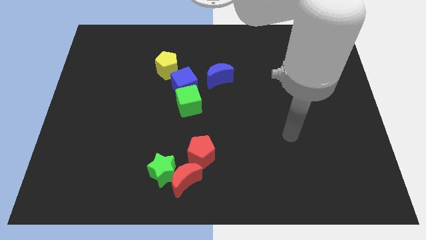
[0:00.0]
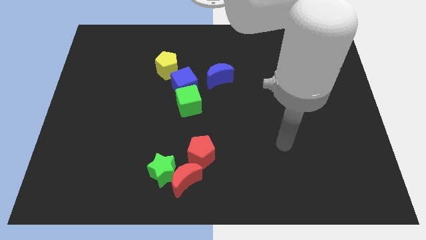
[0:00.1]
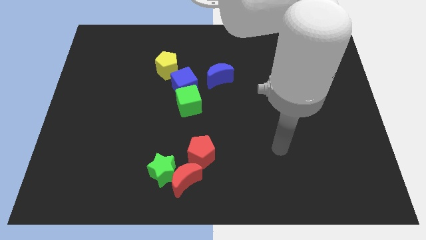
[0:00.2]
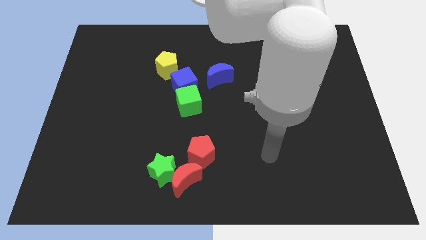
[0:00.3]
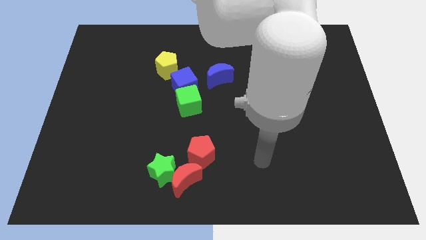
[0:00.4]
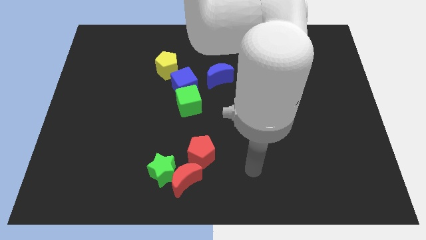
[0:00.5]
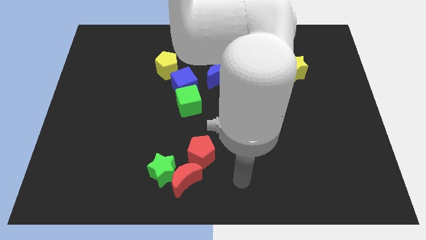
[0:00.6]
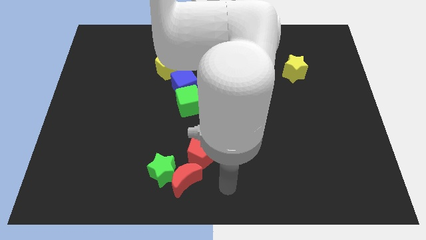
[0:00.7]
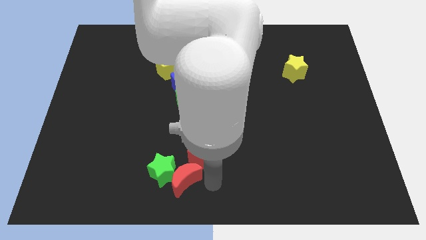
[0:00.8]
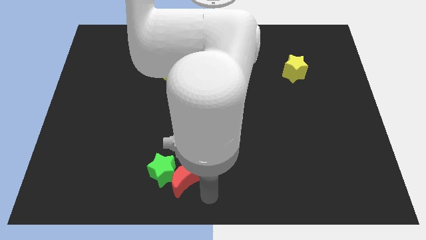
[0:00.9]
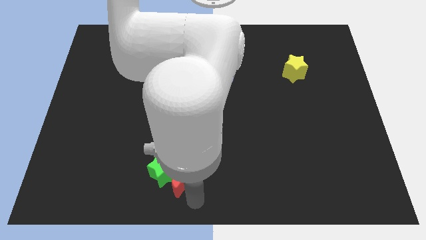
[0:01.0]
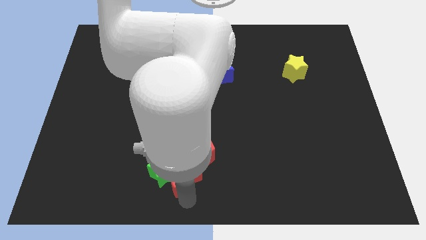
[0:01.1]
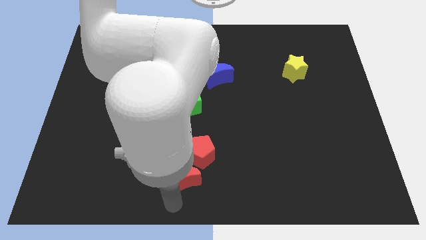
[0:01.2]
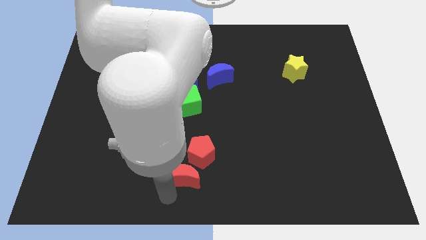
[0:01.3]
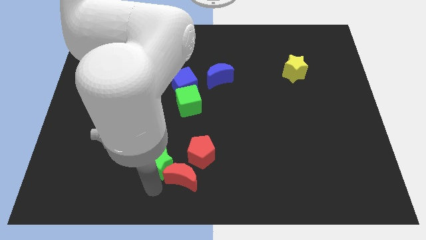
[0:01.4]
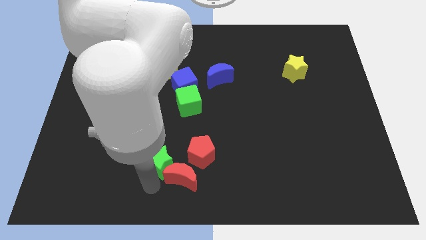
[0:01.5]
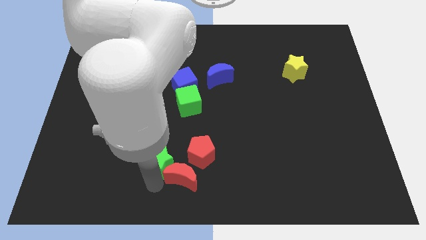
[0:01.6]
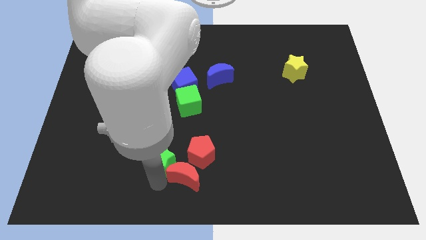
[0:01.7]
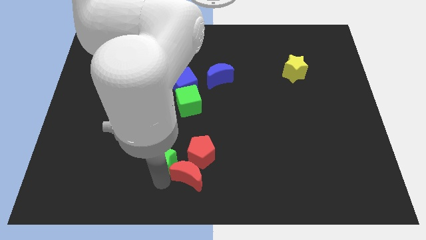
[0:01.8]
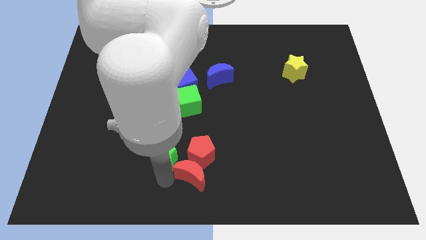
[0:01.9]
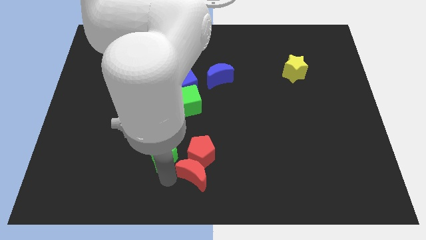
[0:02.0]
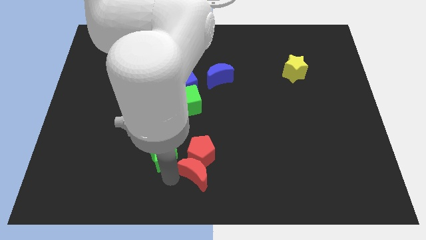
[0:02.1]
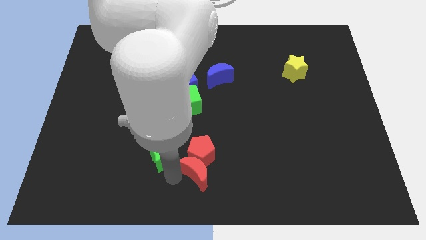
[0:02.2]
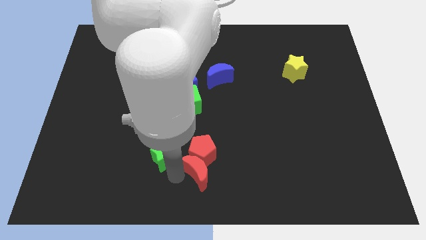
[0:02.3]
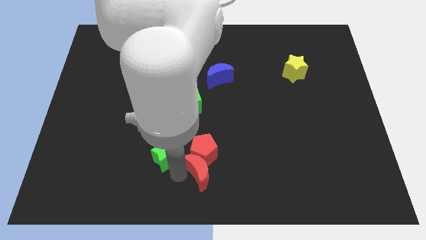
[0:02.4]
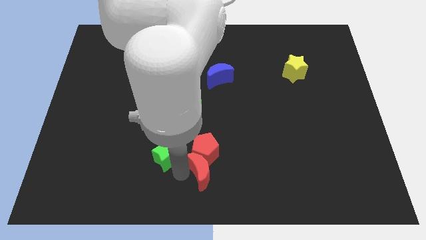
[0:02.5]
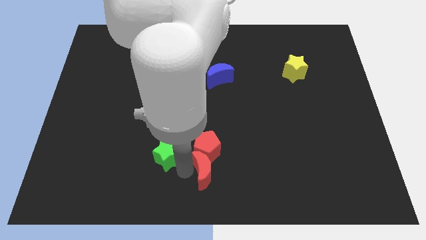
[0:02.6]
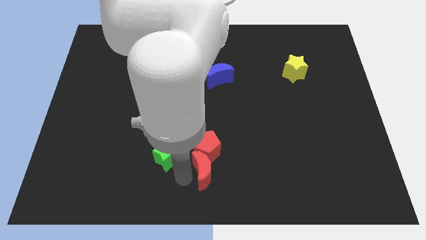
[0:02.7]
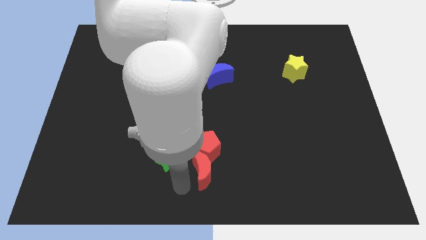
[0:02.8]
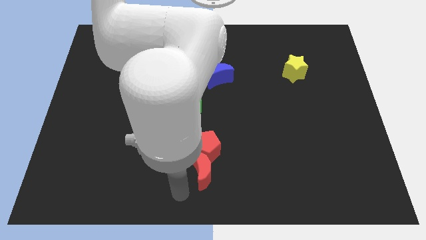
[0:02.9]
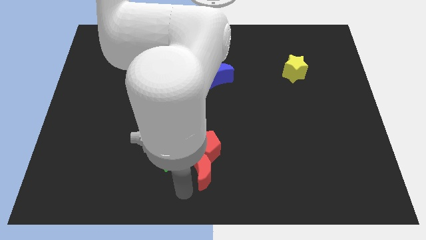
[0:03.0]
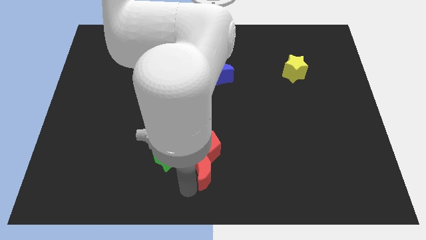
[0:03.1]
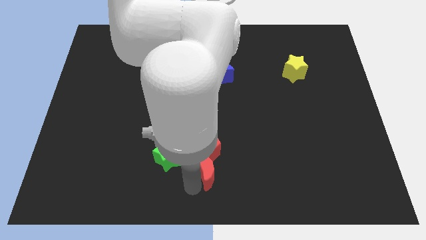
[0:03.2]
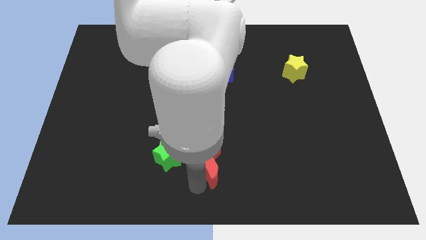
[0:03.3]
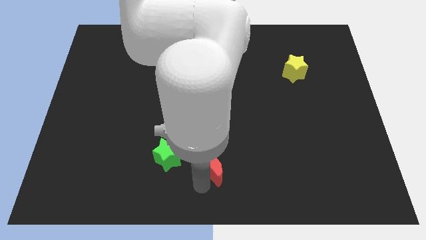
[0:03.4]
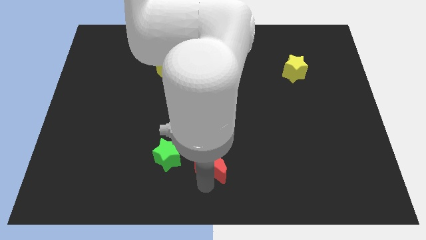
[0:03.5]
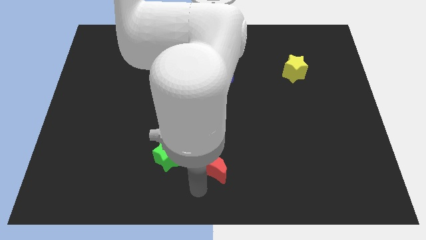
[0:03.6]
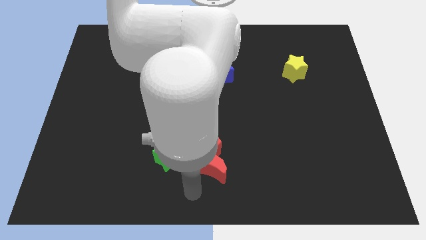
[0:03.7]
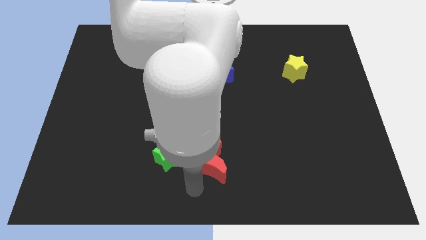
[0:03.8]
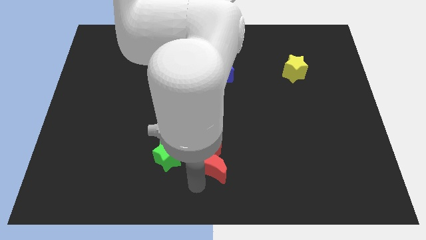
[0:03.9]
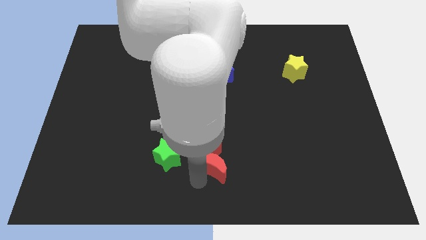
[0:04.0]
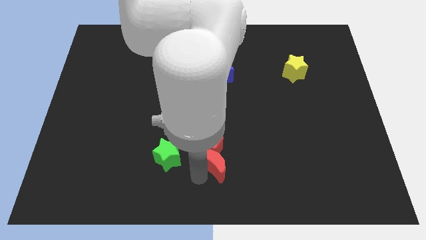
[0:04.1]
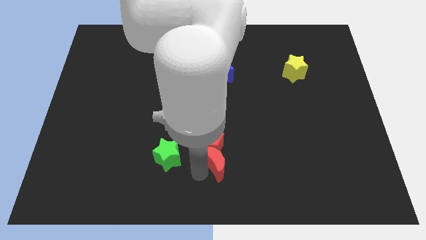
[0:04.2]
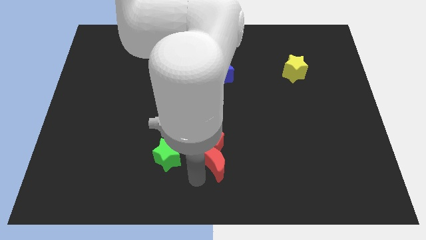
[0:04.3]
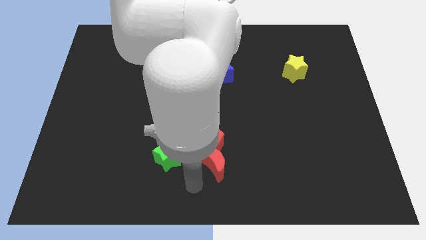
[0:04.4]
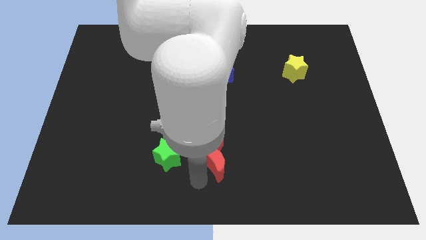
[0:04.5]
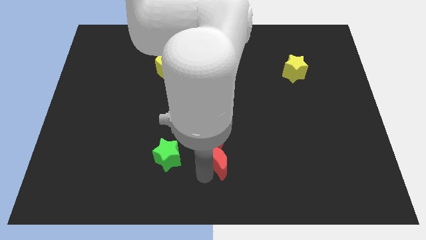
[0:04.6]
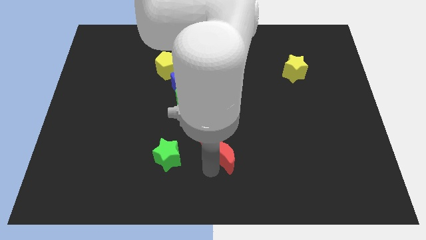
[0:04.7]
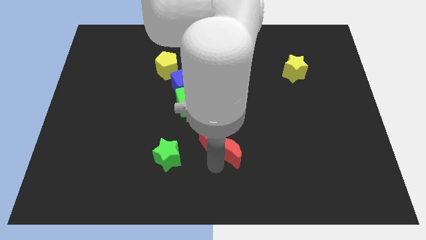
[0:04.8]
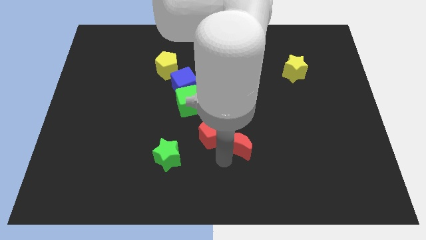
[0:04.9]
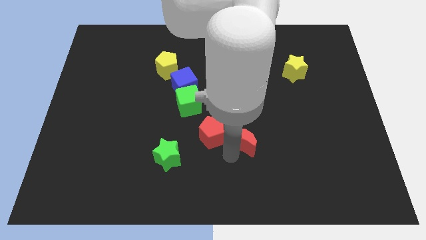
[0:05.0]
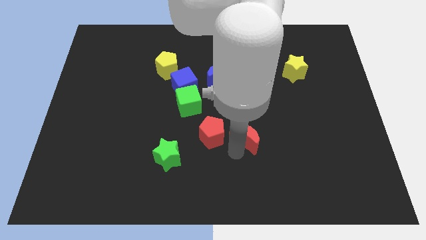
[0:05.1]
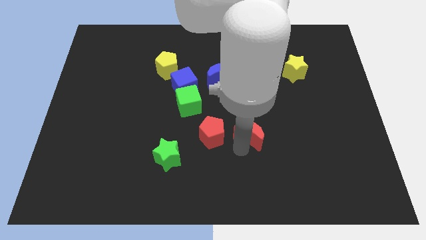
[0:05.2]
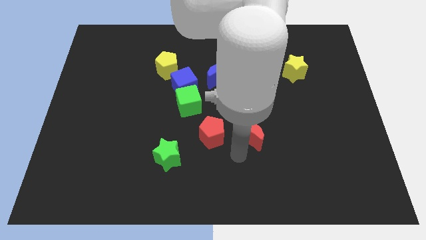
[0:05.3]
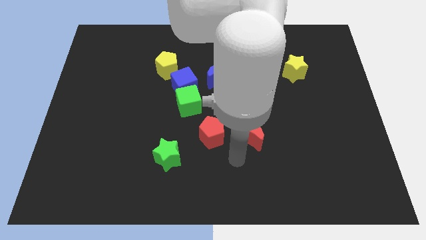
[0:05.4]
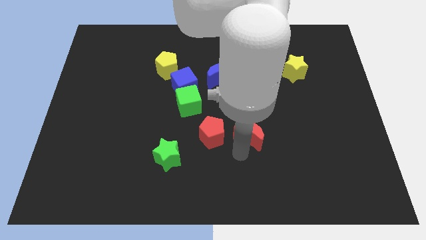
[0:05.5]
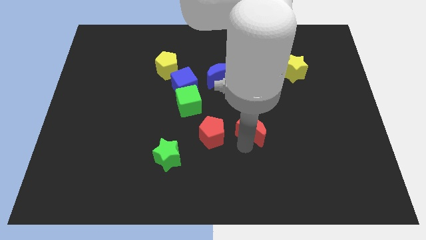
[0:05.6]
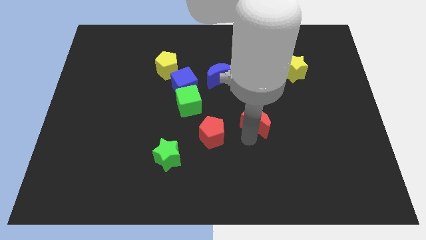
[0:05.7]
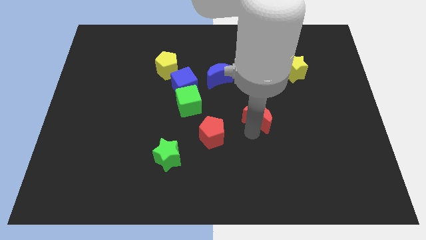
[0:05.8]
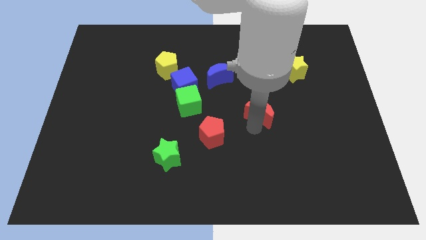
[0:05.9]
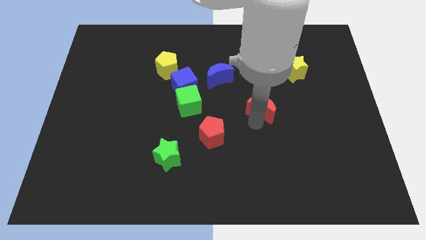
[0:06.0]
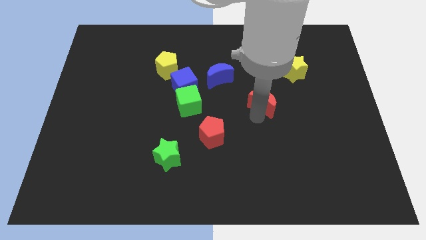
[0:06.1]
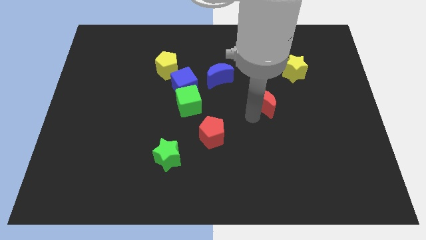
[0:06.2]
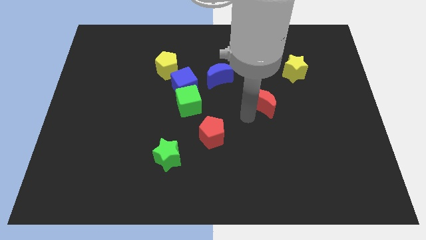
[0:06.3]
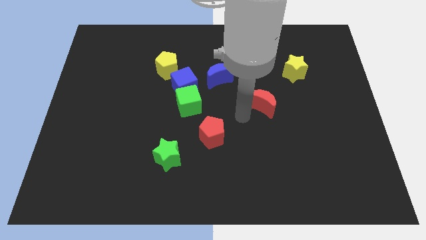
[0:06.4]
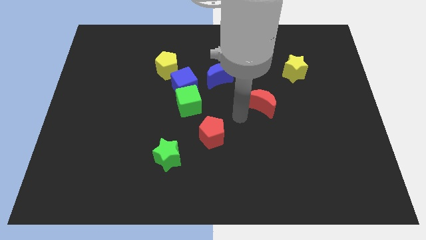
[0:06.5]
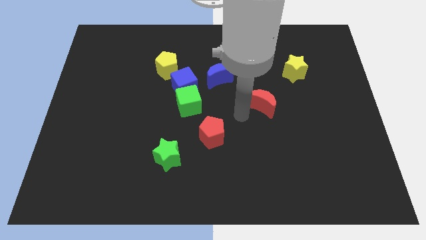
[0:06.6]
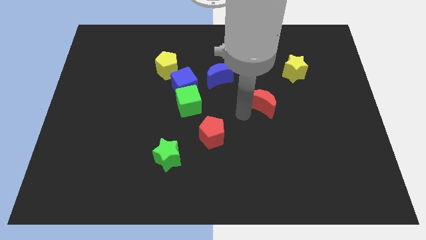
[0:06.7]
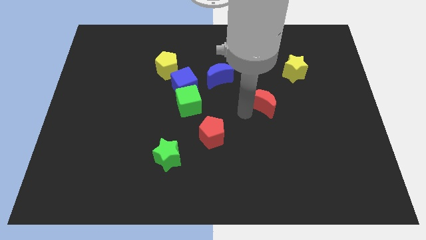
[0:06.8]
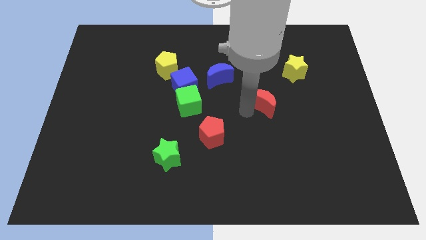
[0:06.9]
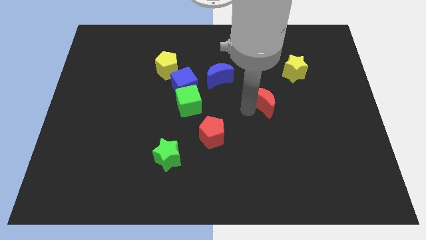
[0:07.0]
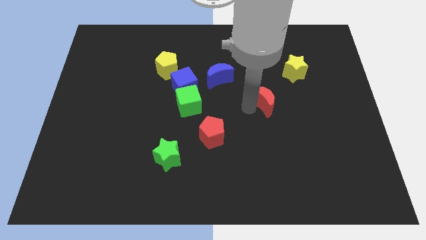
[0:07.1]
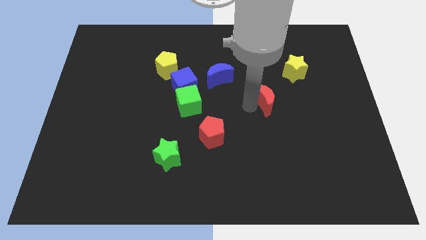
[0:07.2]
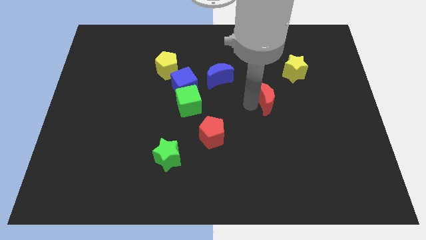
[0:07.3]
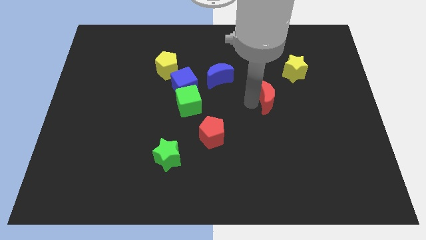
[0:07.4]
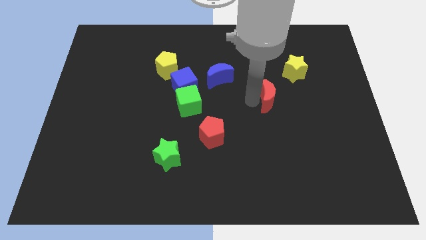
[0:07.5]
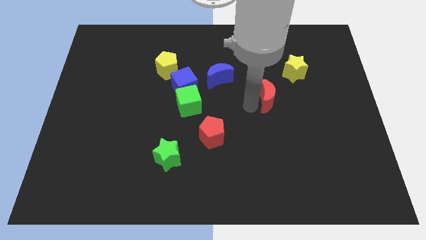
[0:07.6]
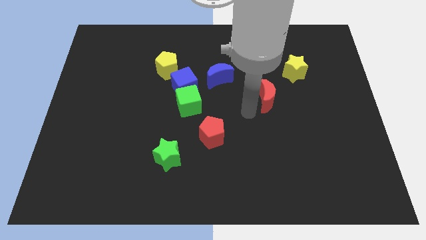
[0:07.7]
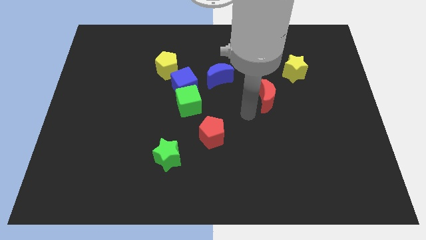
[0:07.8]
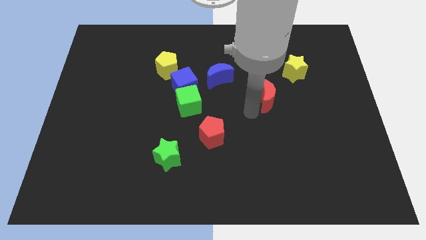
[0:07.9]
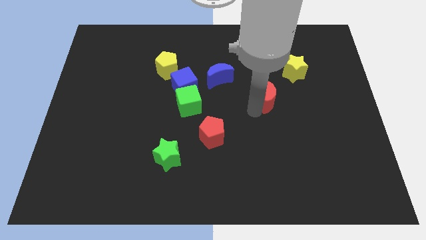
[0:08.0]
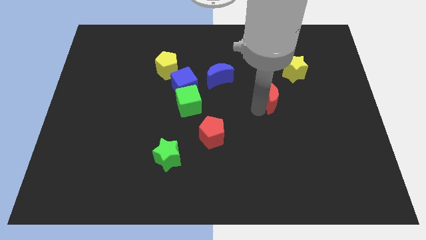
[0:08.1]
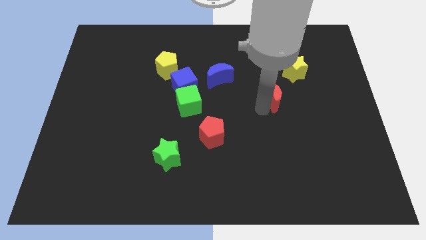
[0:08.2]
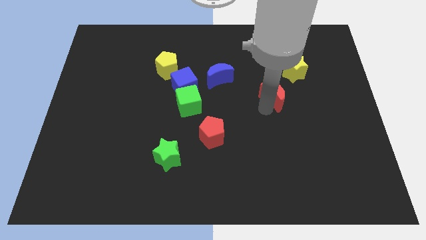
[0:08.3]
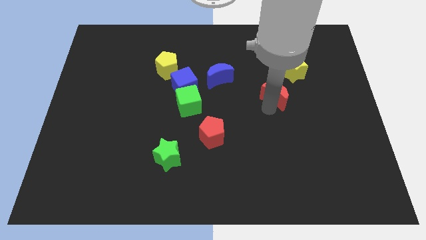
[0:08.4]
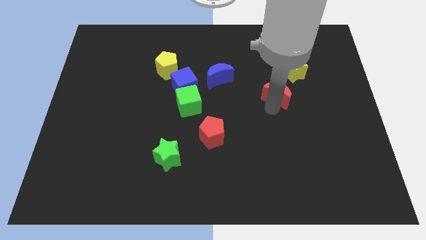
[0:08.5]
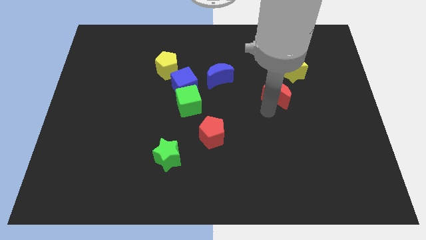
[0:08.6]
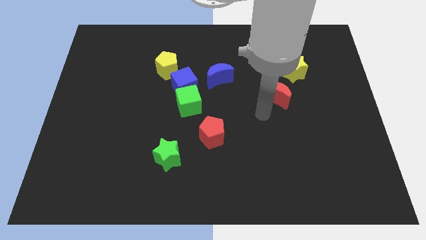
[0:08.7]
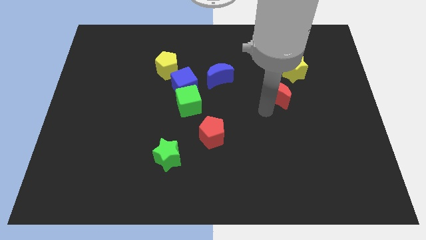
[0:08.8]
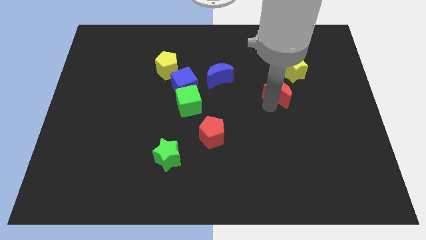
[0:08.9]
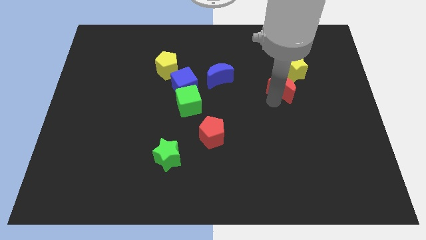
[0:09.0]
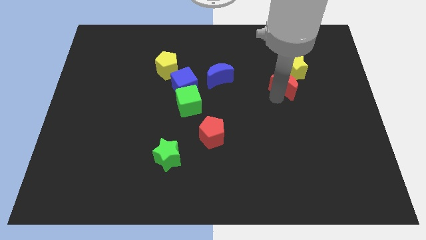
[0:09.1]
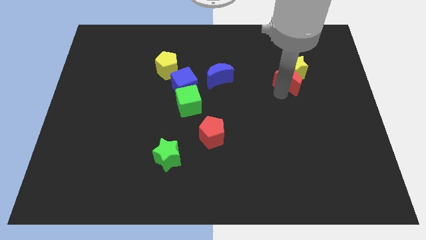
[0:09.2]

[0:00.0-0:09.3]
move the red moon towards the yellow star
